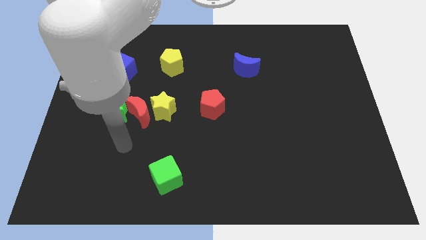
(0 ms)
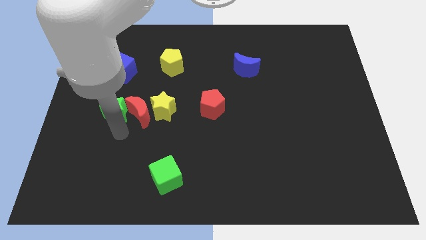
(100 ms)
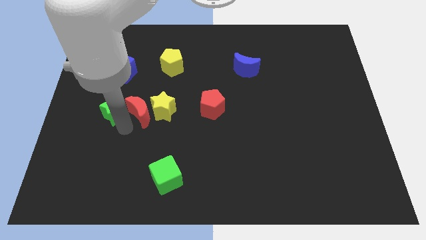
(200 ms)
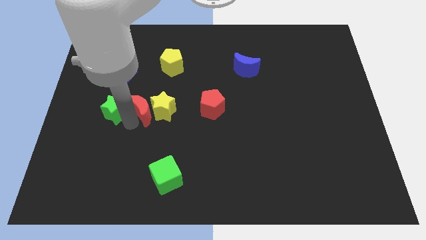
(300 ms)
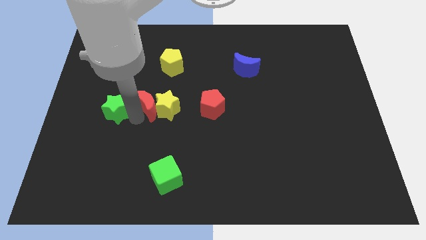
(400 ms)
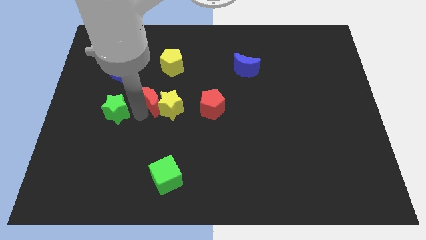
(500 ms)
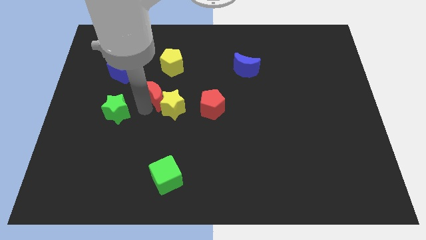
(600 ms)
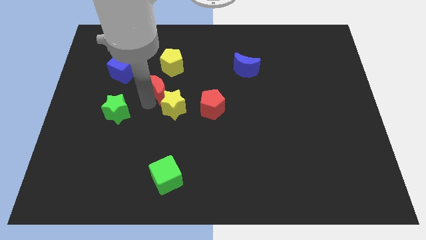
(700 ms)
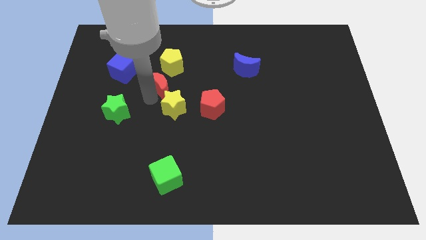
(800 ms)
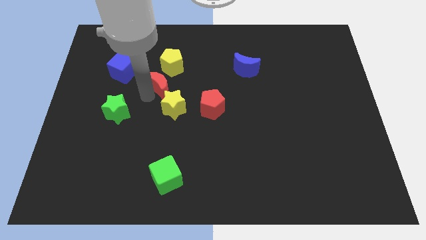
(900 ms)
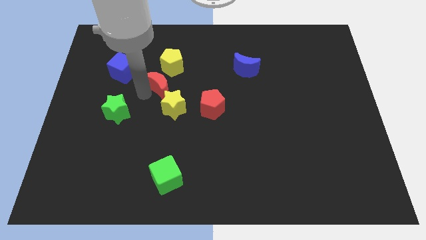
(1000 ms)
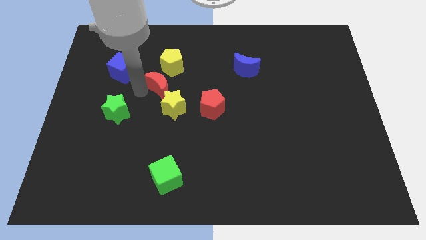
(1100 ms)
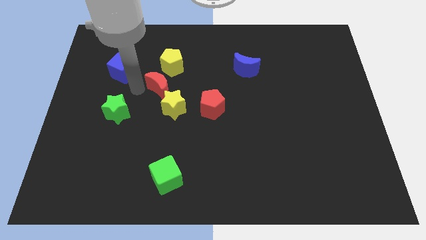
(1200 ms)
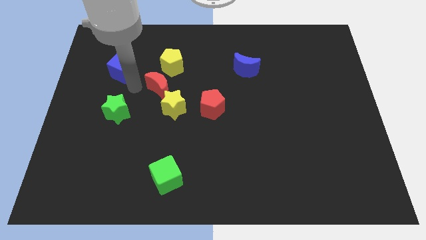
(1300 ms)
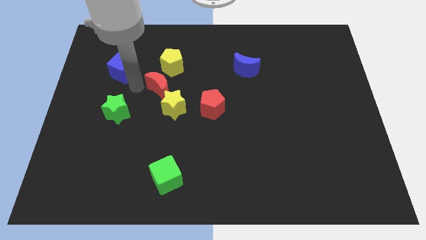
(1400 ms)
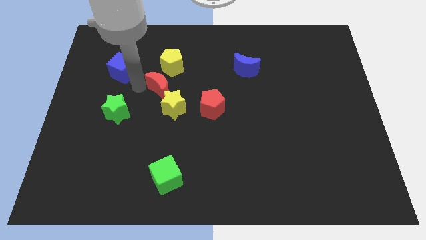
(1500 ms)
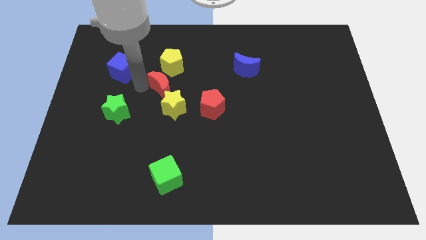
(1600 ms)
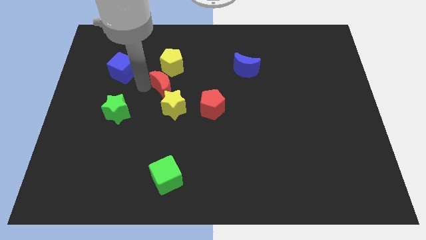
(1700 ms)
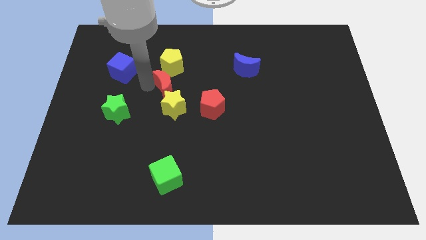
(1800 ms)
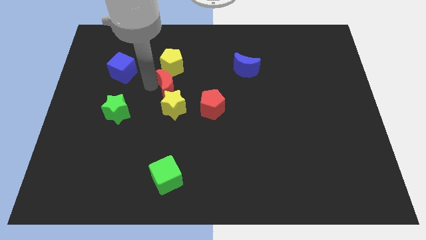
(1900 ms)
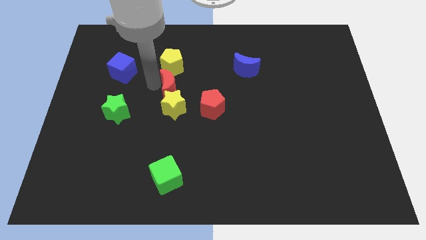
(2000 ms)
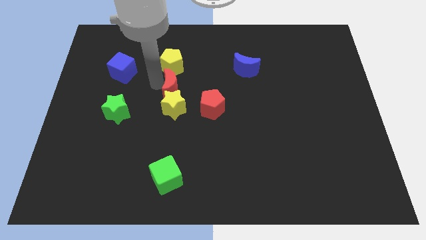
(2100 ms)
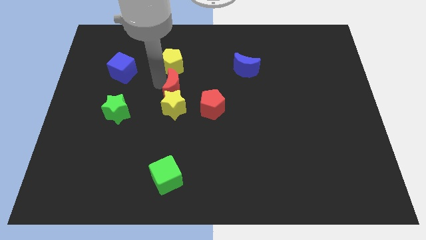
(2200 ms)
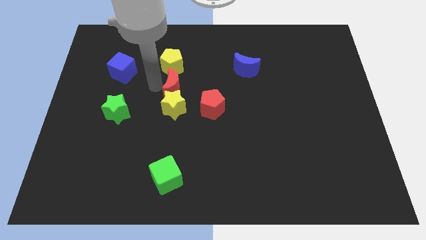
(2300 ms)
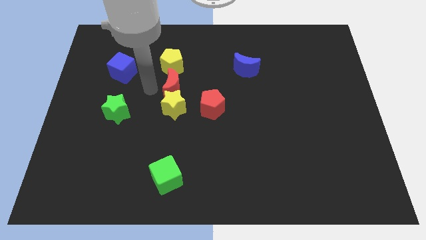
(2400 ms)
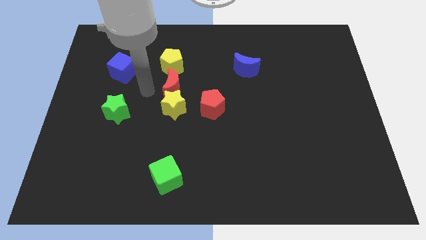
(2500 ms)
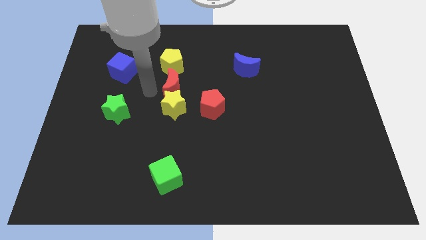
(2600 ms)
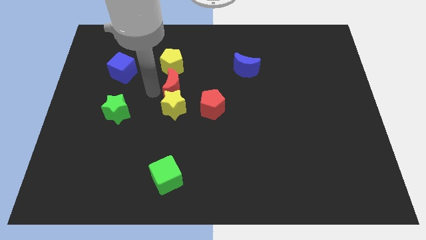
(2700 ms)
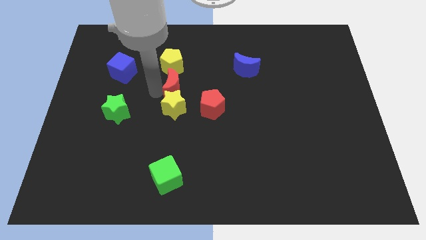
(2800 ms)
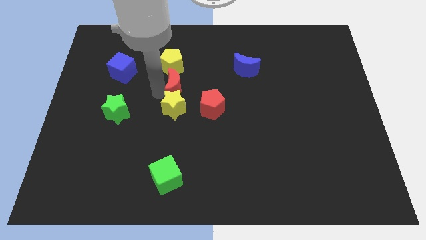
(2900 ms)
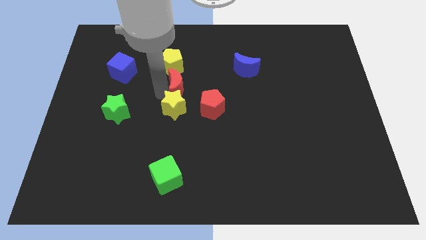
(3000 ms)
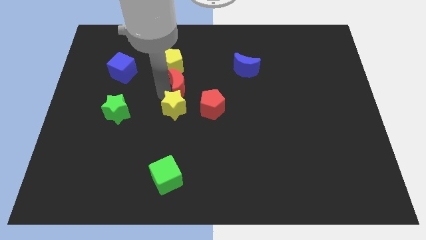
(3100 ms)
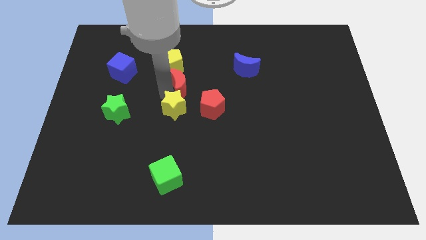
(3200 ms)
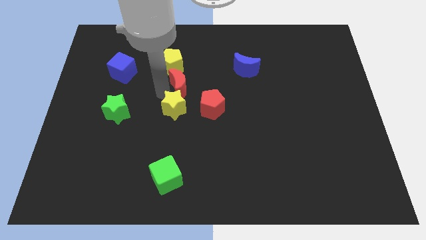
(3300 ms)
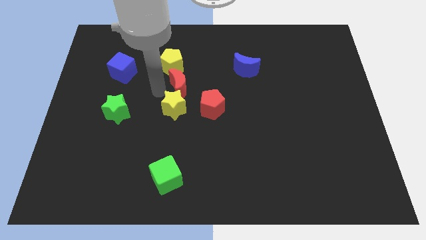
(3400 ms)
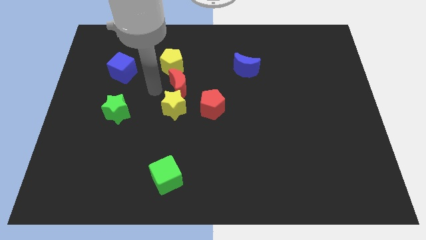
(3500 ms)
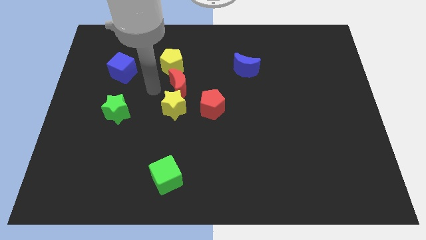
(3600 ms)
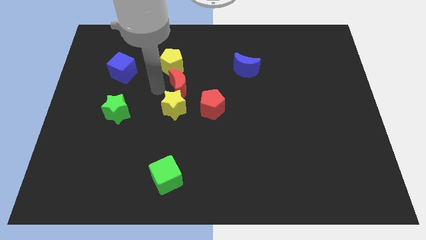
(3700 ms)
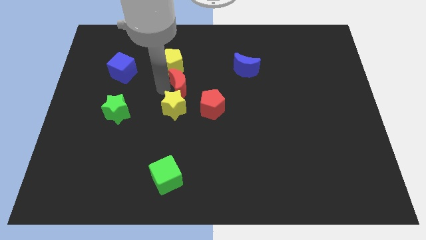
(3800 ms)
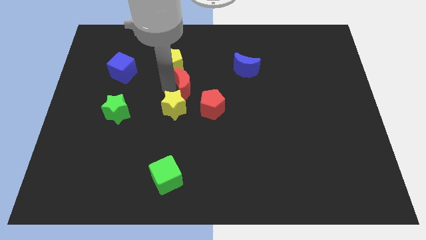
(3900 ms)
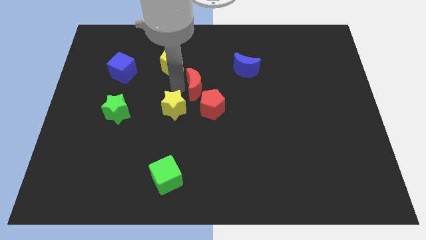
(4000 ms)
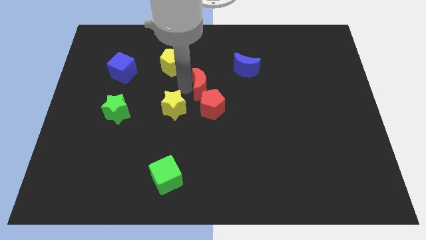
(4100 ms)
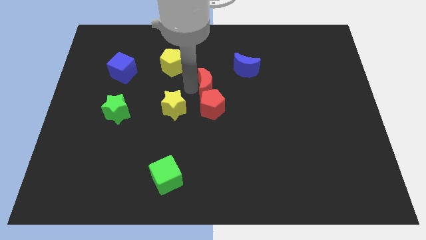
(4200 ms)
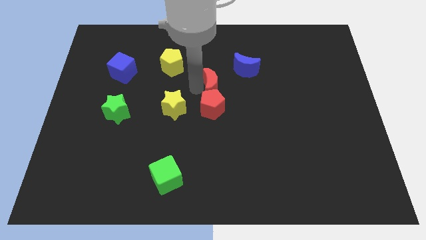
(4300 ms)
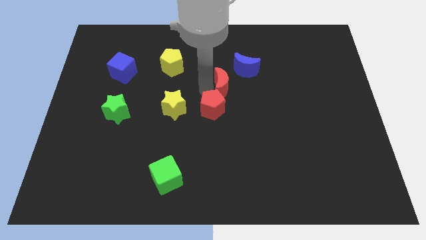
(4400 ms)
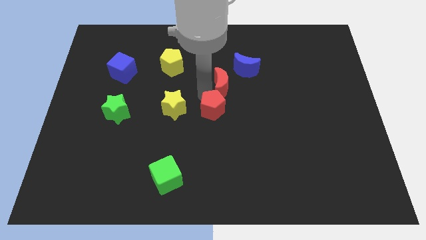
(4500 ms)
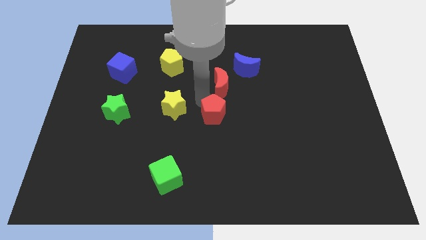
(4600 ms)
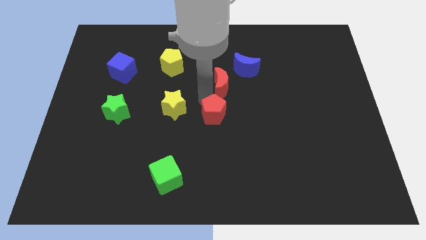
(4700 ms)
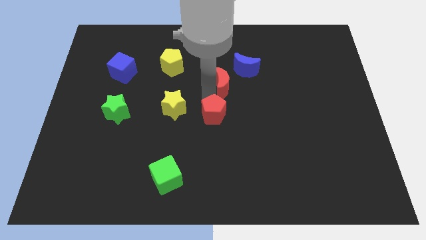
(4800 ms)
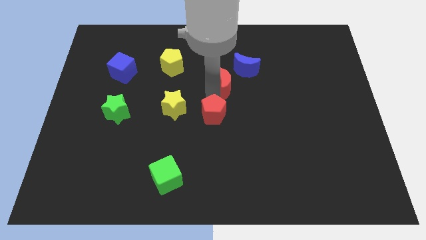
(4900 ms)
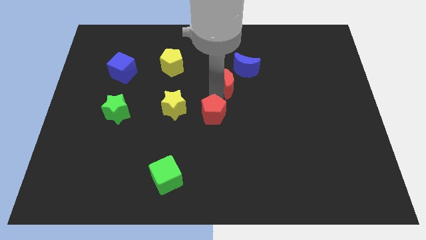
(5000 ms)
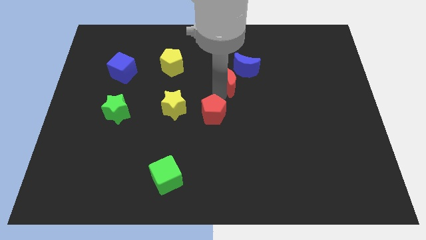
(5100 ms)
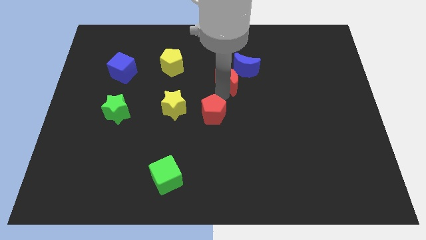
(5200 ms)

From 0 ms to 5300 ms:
slide the red moon towards the blue moon

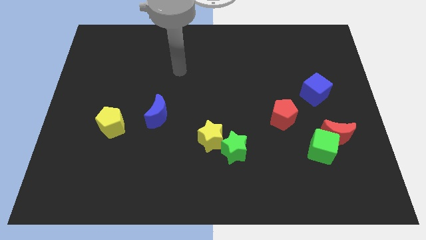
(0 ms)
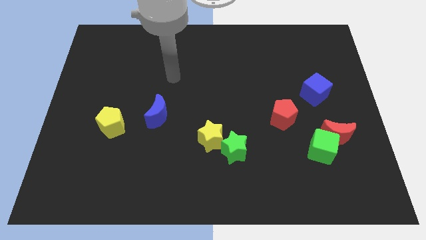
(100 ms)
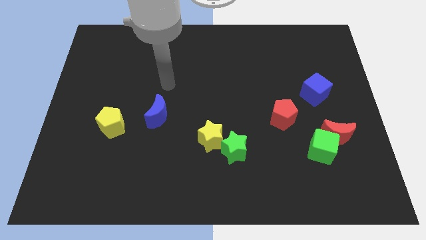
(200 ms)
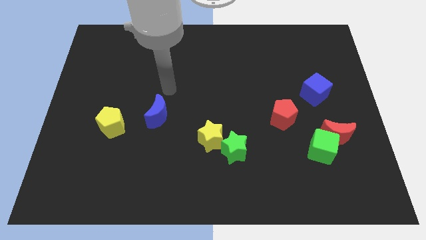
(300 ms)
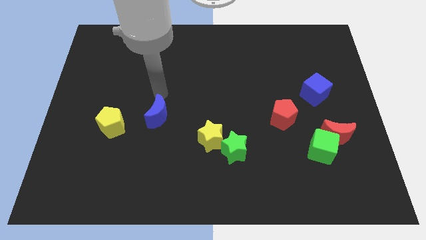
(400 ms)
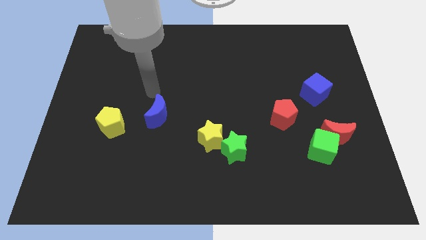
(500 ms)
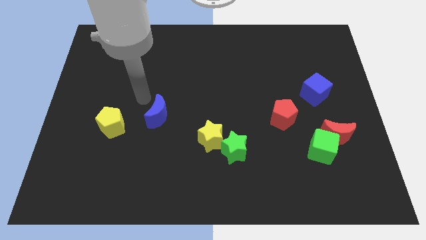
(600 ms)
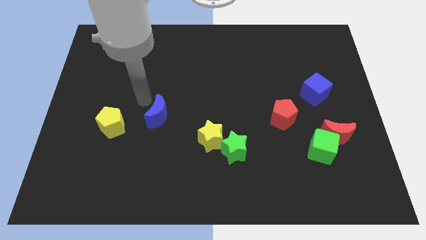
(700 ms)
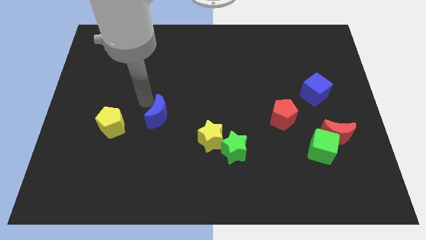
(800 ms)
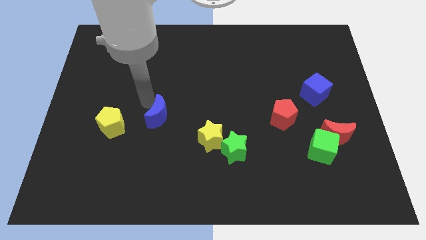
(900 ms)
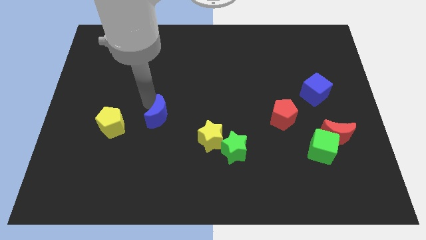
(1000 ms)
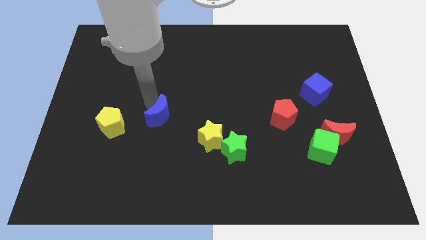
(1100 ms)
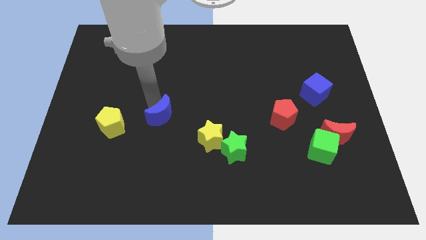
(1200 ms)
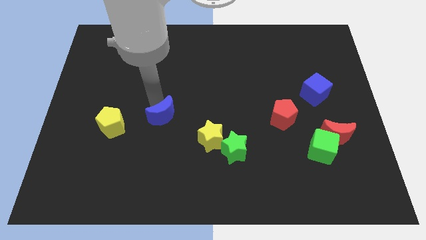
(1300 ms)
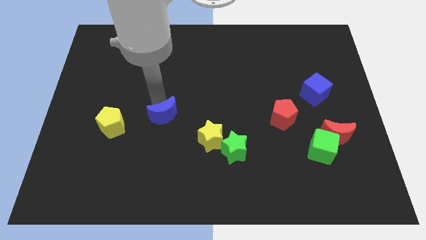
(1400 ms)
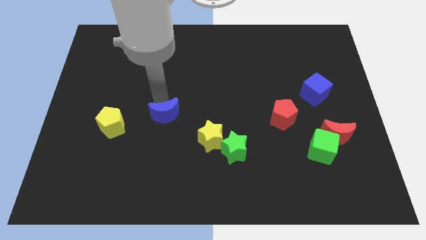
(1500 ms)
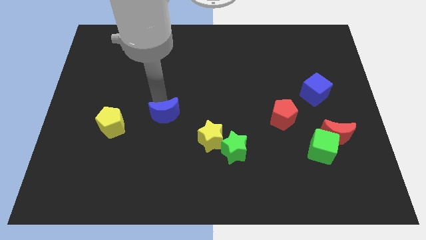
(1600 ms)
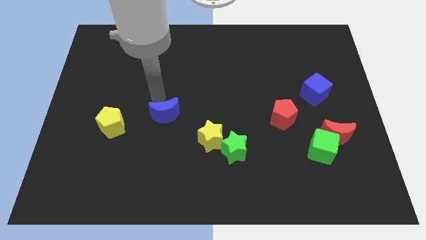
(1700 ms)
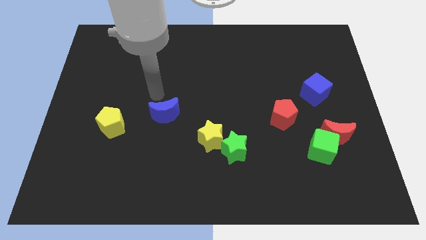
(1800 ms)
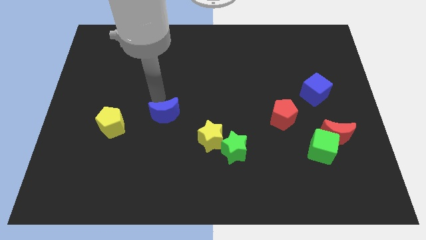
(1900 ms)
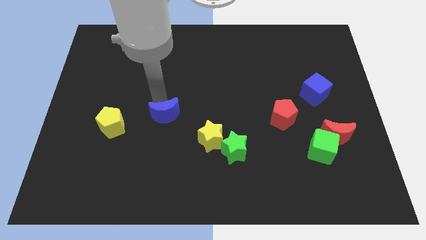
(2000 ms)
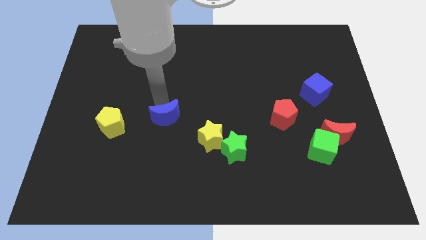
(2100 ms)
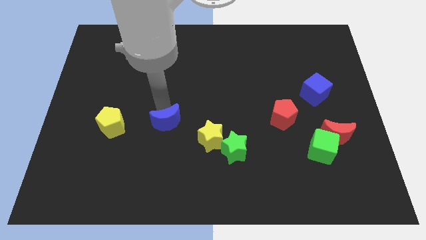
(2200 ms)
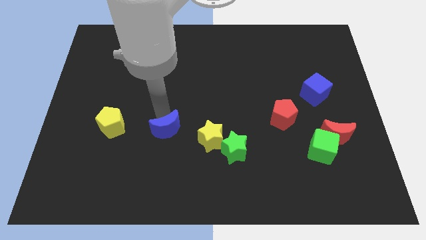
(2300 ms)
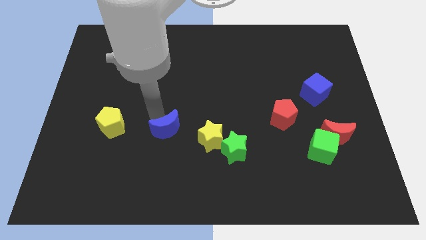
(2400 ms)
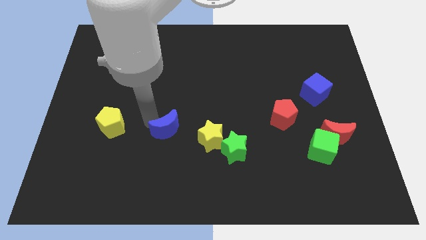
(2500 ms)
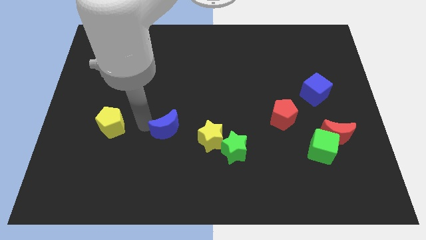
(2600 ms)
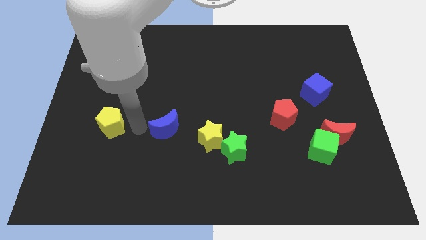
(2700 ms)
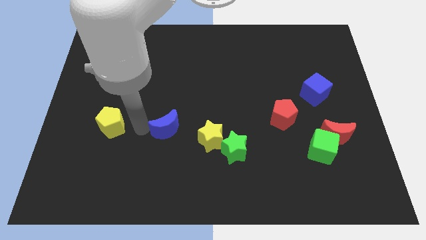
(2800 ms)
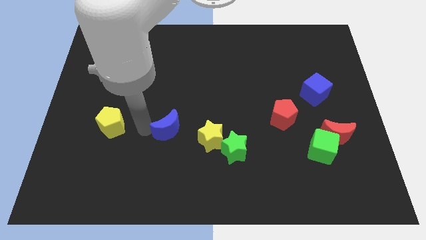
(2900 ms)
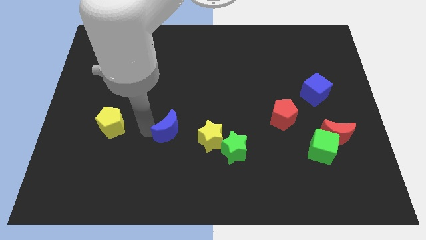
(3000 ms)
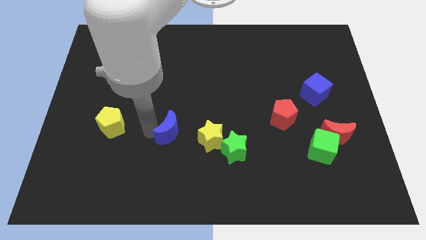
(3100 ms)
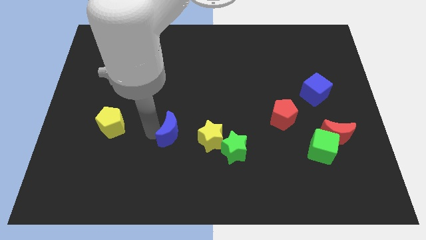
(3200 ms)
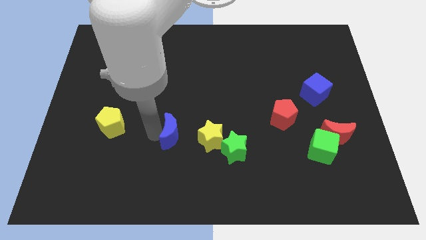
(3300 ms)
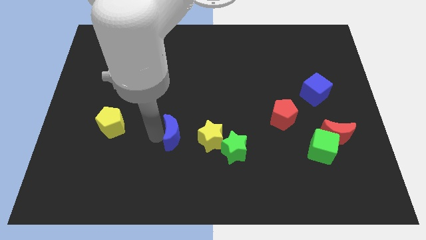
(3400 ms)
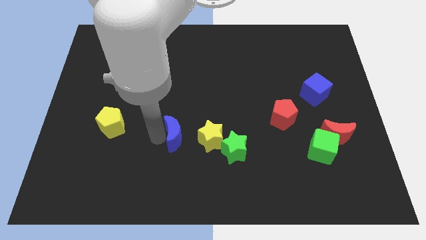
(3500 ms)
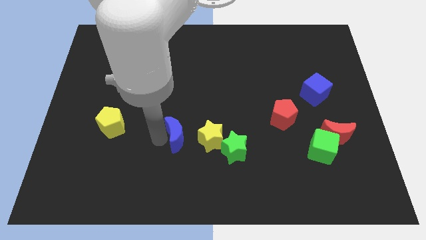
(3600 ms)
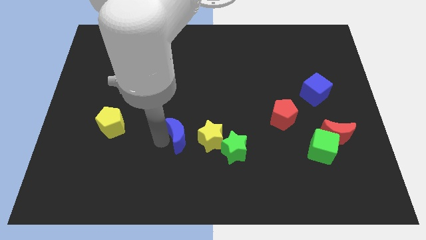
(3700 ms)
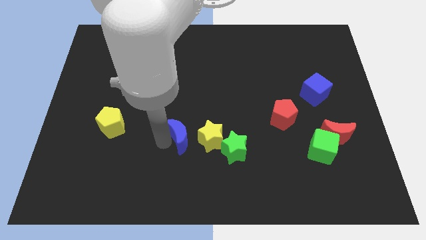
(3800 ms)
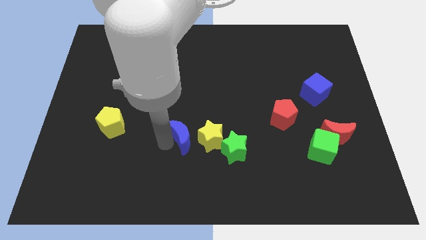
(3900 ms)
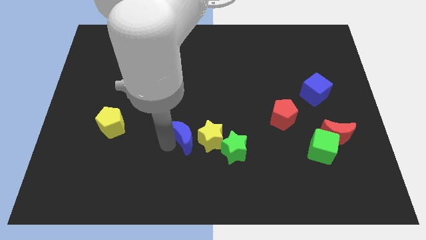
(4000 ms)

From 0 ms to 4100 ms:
push the blue moon to the yellow star
